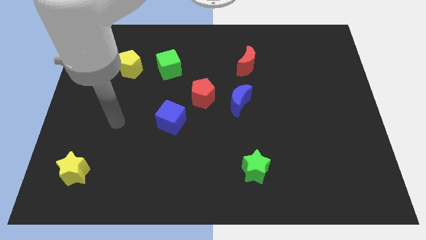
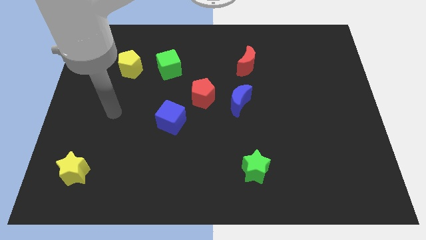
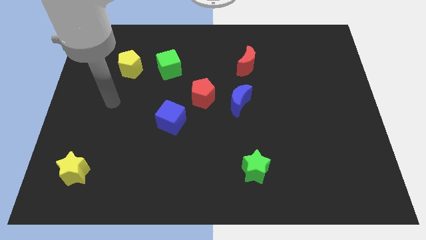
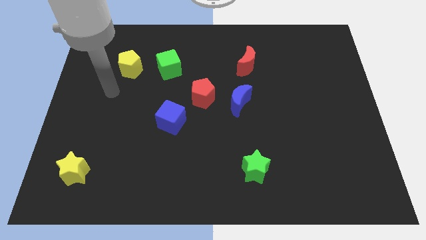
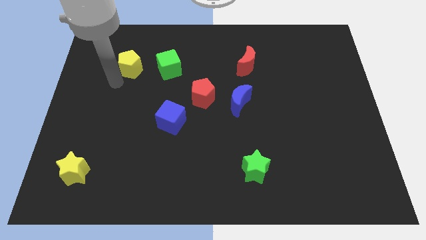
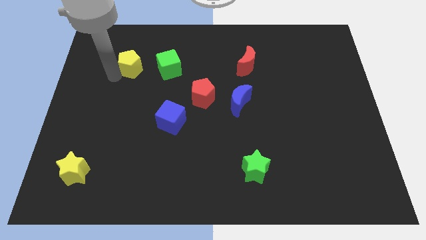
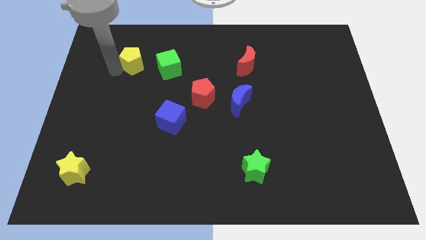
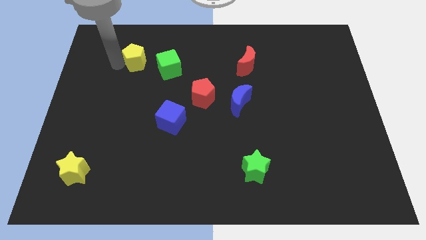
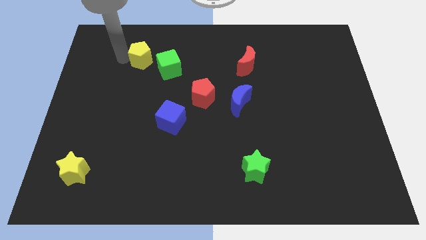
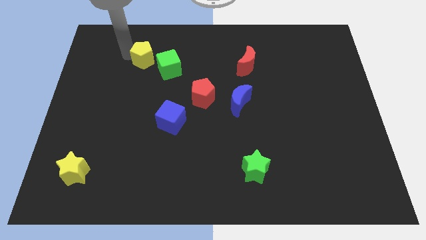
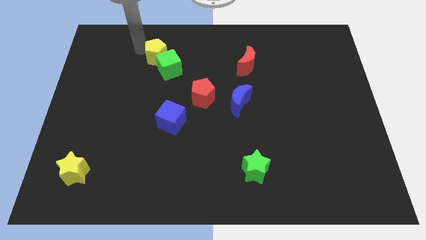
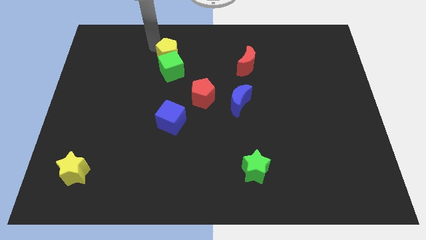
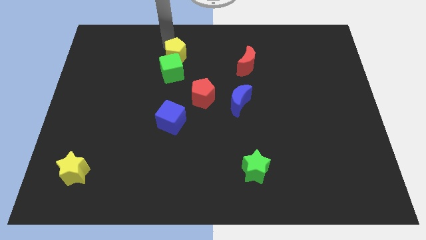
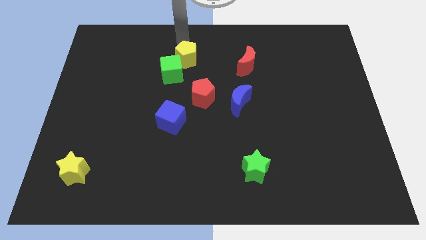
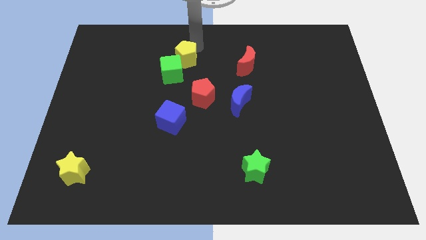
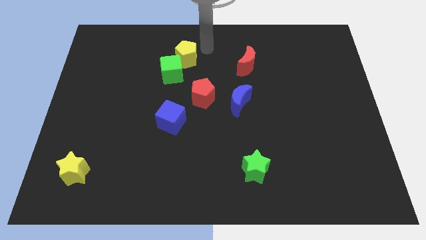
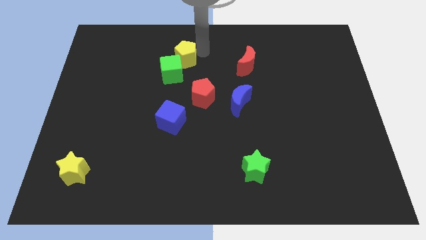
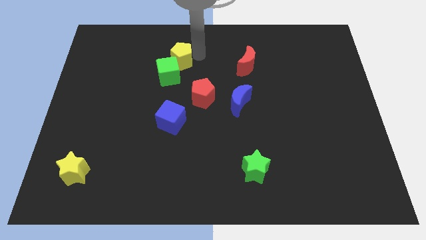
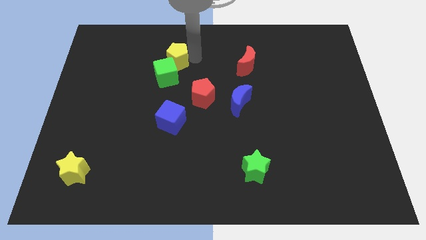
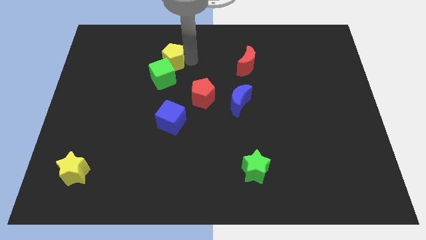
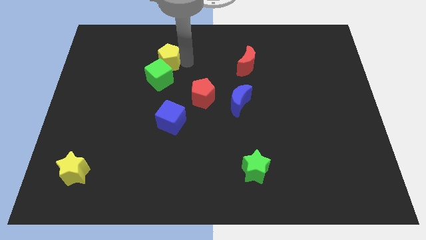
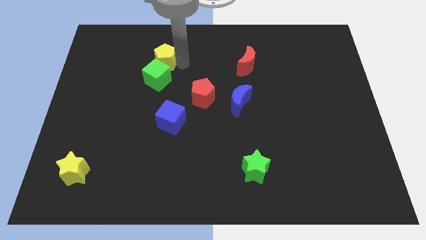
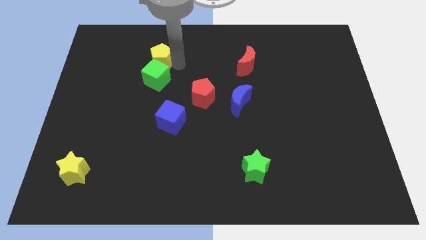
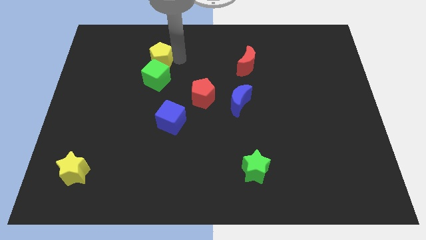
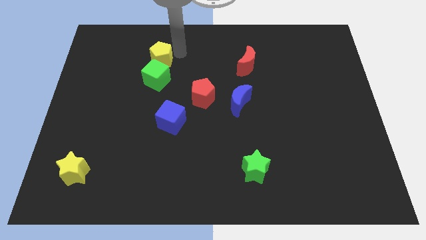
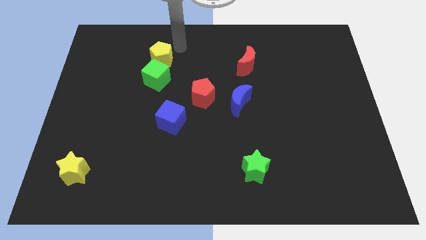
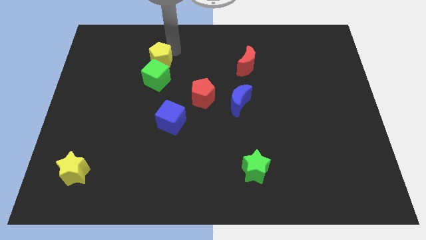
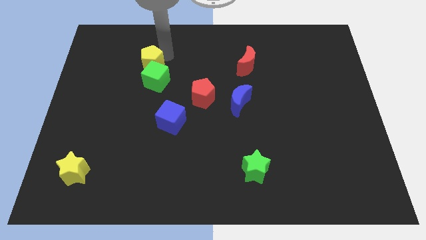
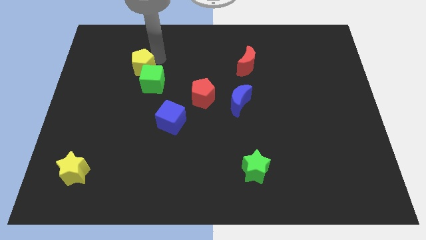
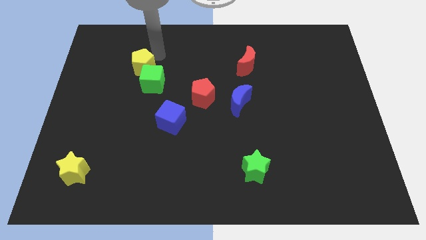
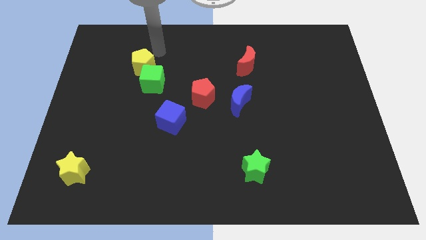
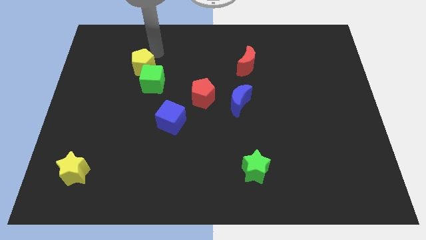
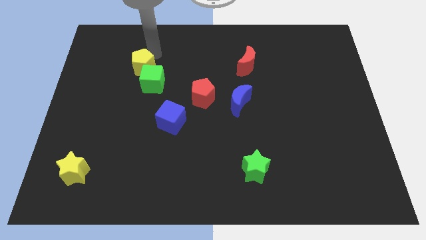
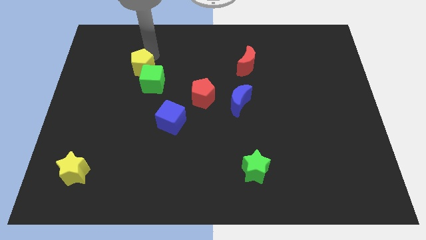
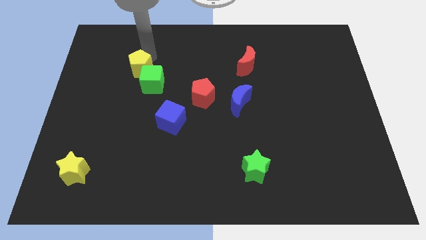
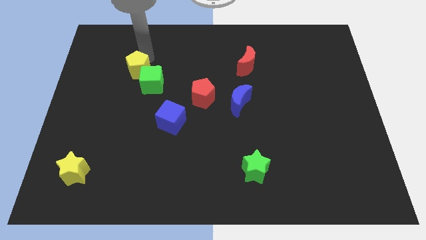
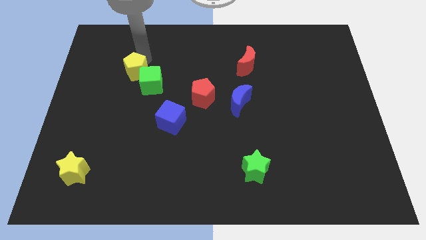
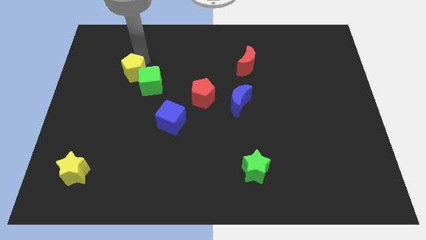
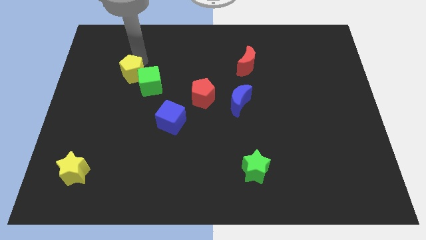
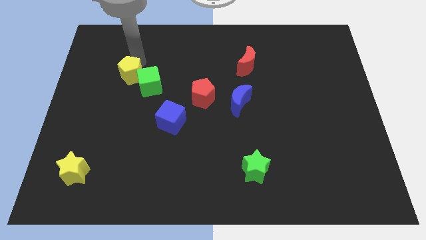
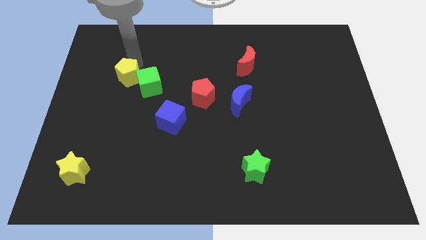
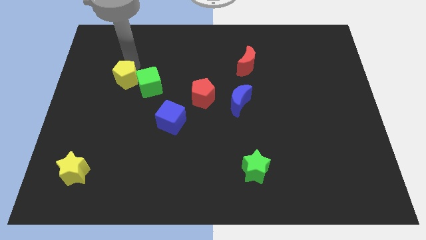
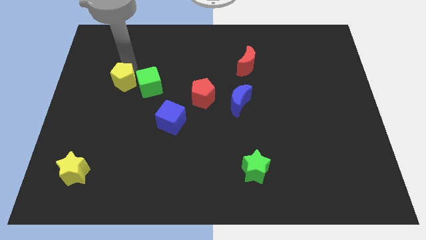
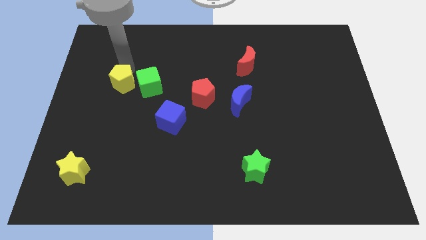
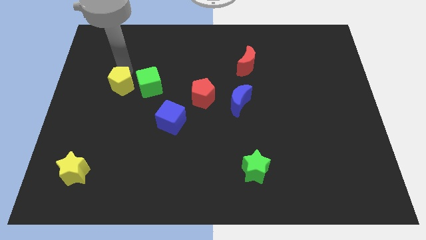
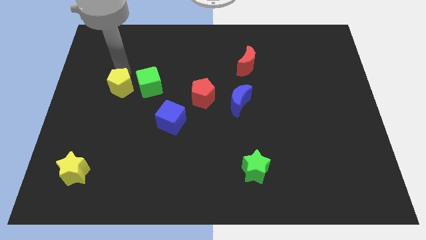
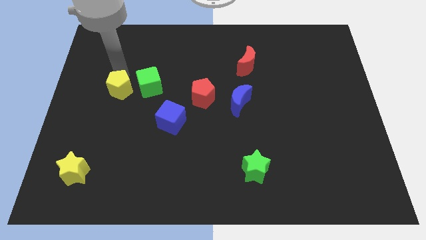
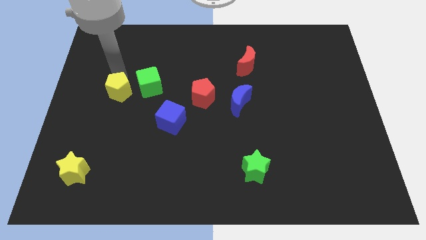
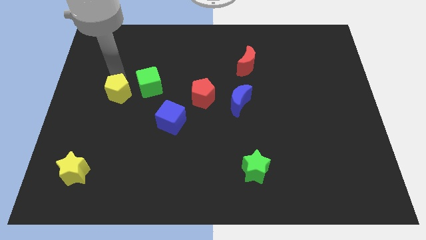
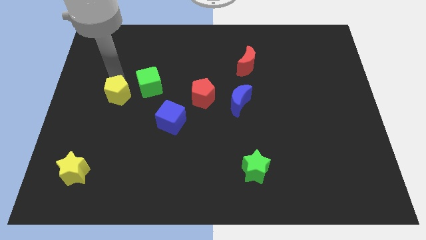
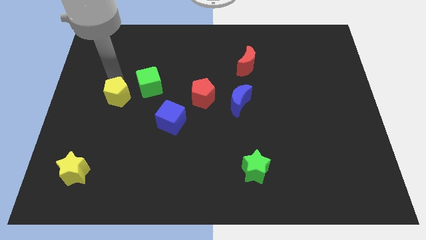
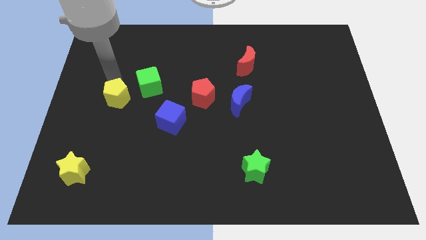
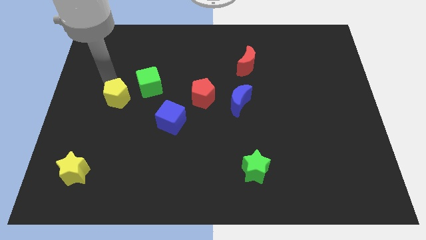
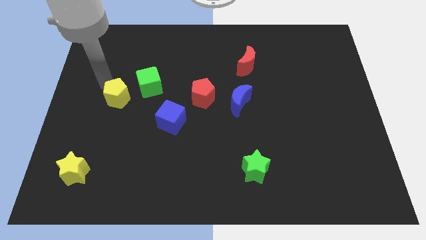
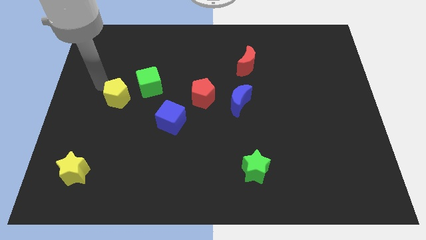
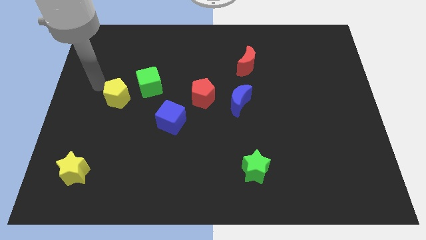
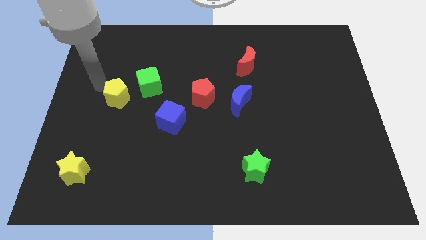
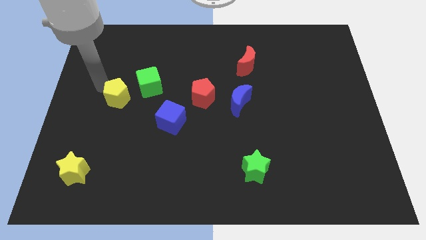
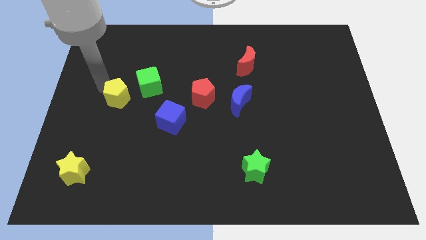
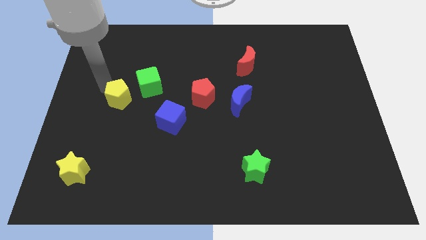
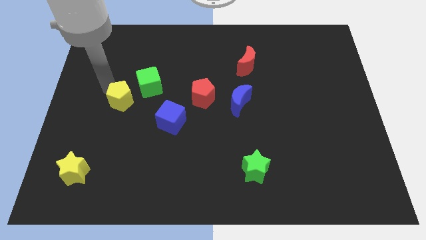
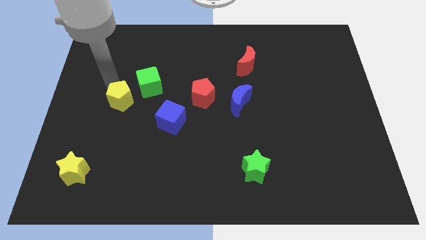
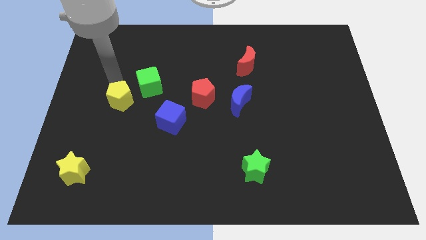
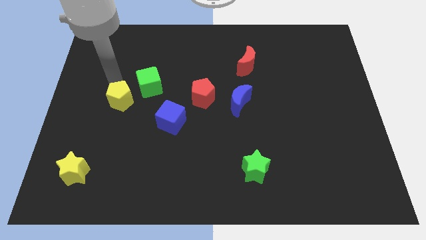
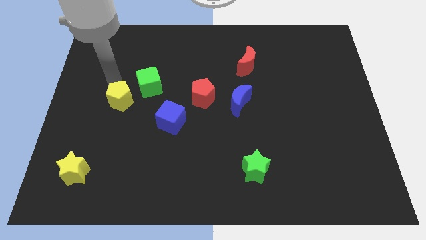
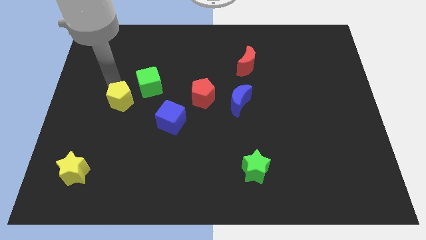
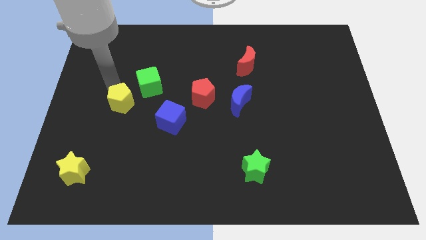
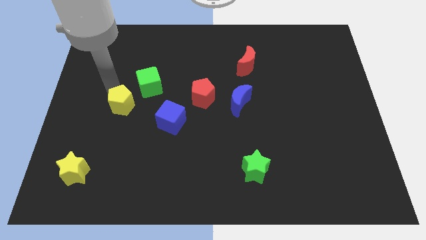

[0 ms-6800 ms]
slide the yellow pentagon just left of the blue cube
